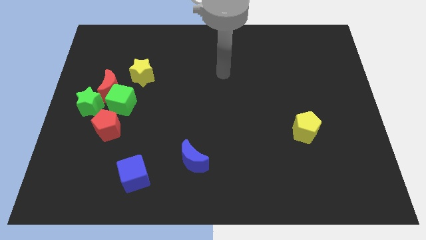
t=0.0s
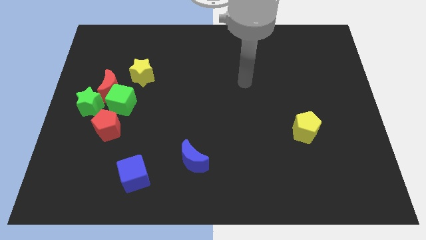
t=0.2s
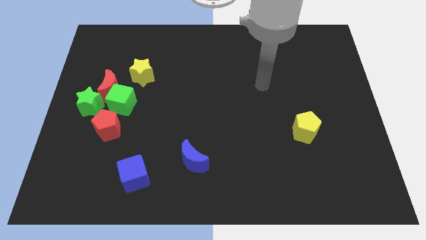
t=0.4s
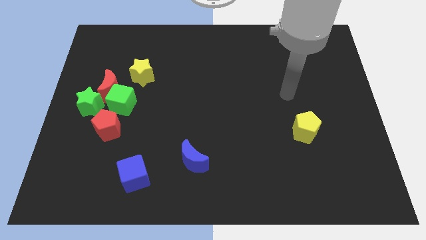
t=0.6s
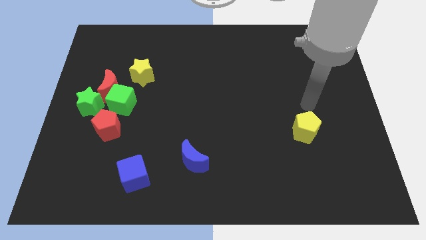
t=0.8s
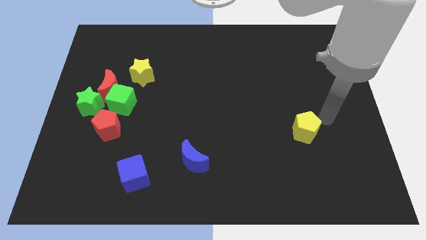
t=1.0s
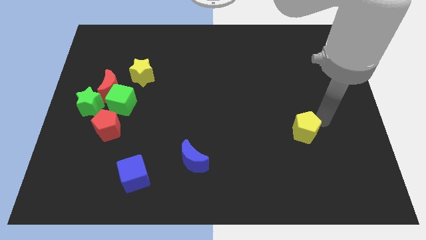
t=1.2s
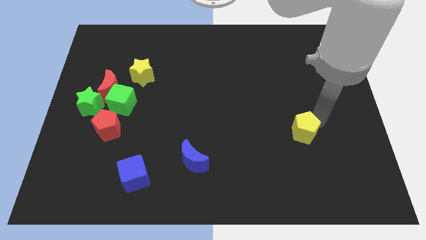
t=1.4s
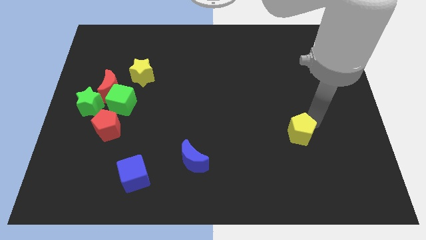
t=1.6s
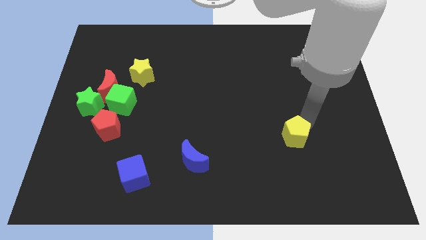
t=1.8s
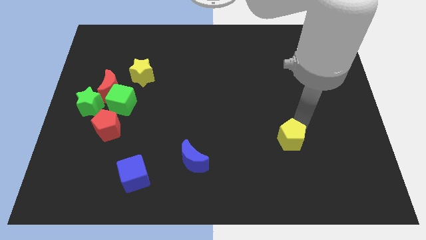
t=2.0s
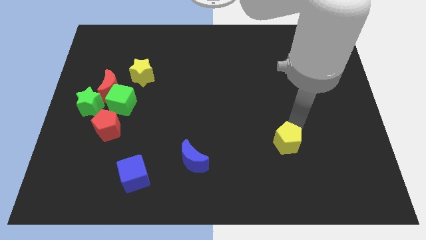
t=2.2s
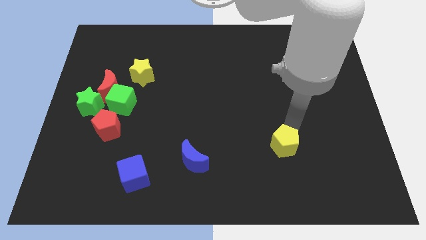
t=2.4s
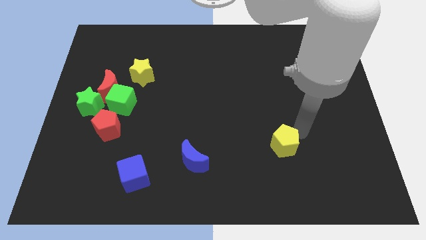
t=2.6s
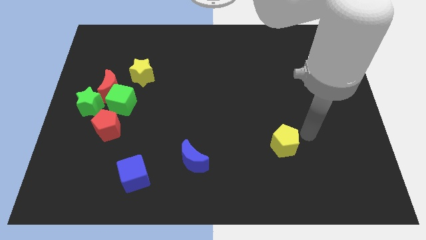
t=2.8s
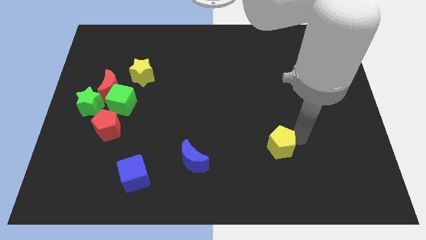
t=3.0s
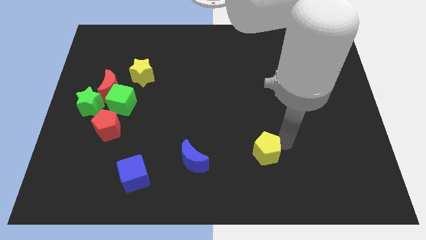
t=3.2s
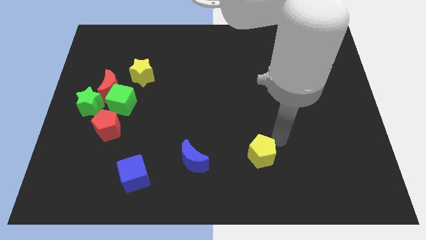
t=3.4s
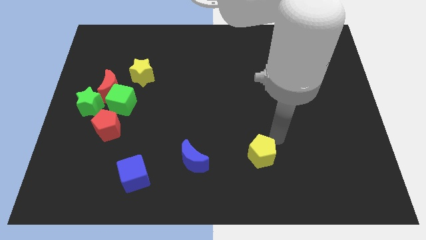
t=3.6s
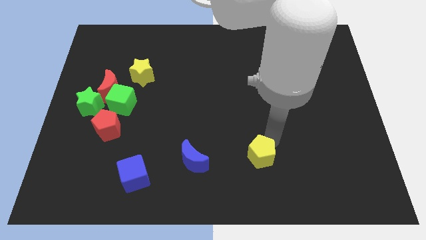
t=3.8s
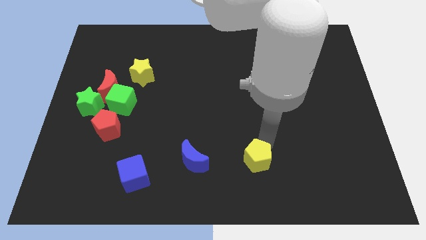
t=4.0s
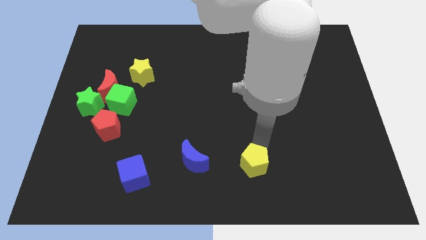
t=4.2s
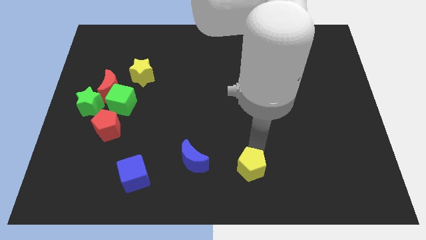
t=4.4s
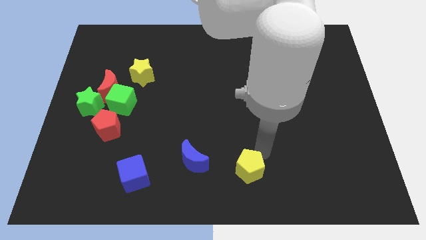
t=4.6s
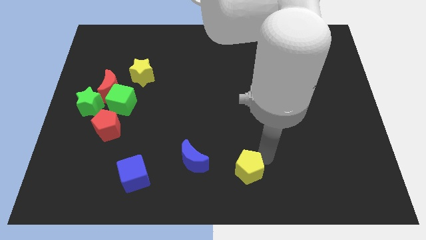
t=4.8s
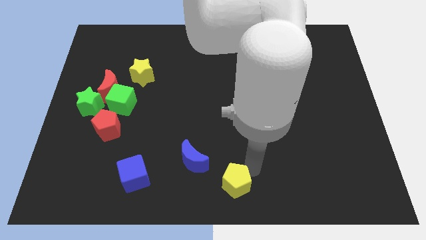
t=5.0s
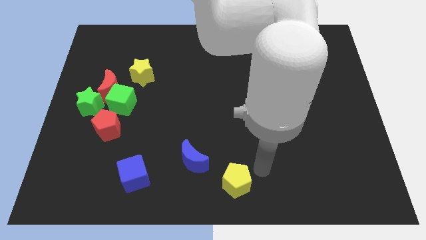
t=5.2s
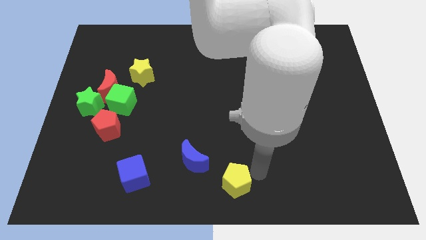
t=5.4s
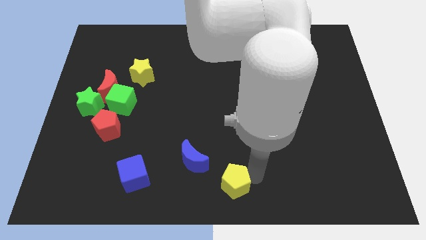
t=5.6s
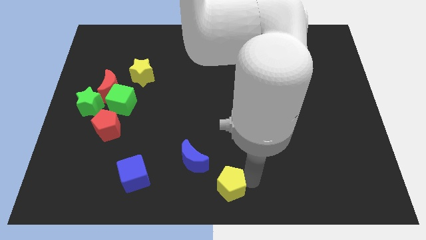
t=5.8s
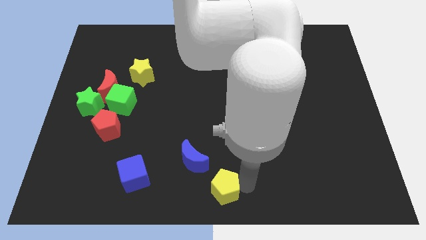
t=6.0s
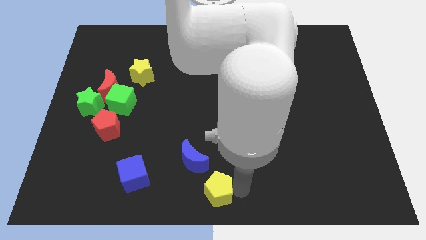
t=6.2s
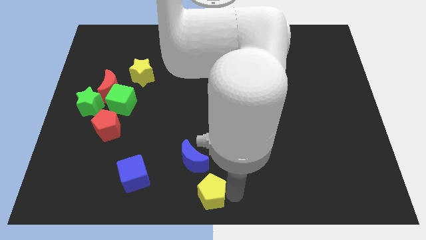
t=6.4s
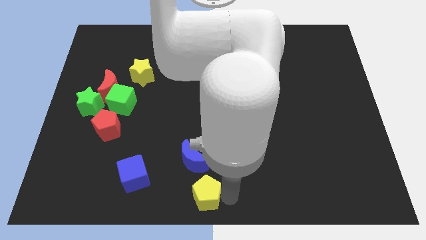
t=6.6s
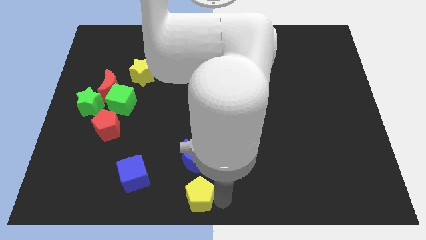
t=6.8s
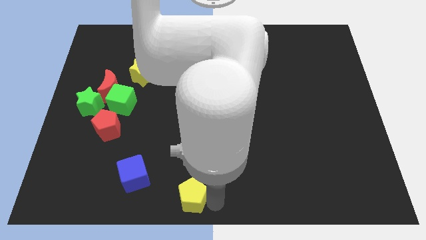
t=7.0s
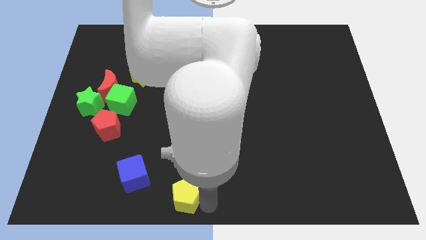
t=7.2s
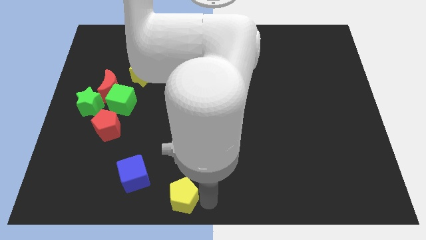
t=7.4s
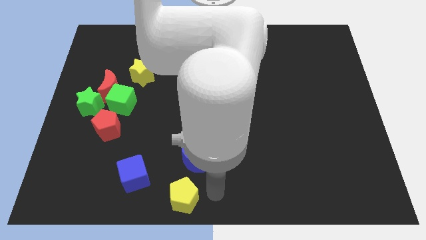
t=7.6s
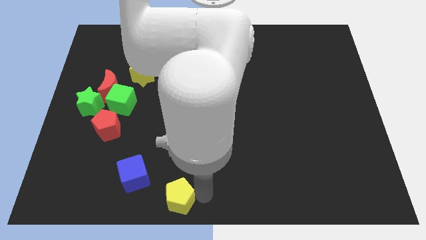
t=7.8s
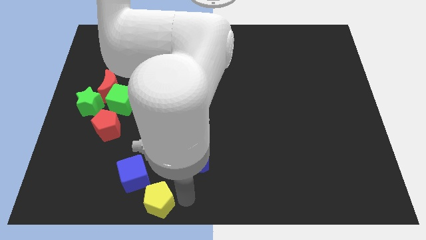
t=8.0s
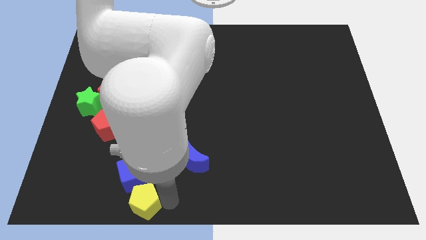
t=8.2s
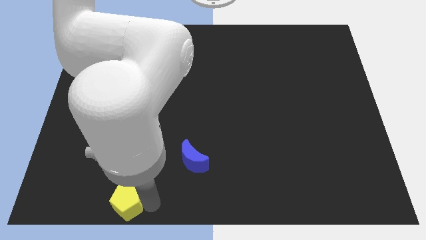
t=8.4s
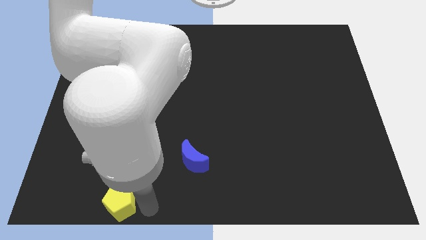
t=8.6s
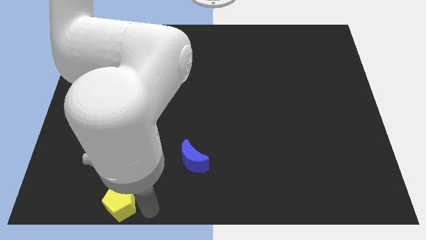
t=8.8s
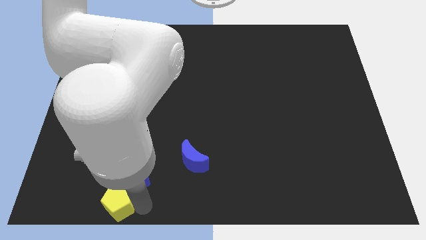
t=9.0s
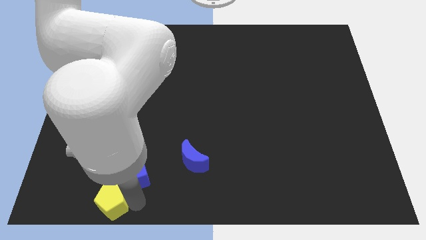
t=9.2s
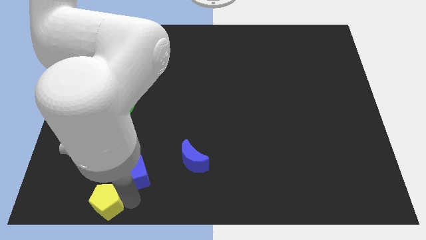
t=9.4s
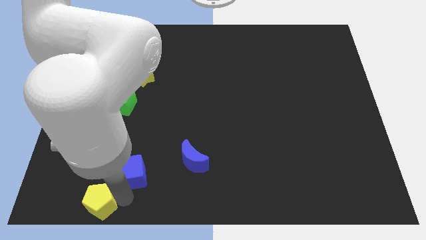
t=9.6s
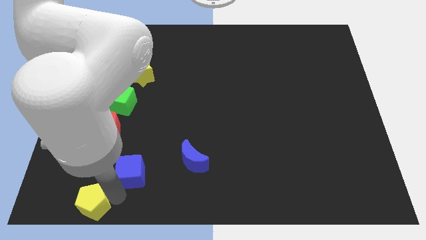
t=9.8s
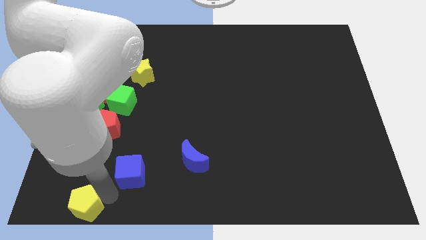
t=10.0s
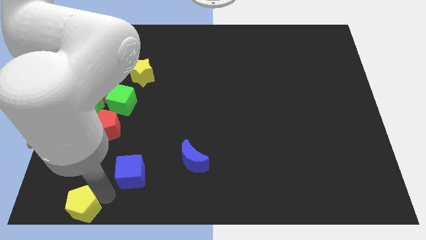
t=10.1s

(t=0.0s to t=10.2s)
put the yellow pentagon to the bottom left

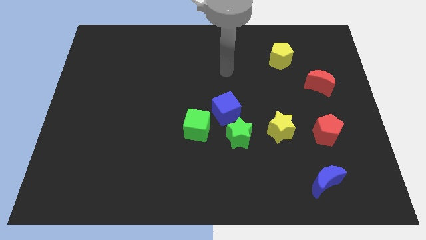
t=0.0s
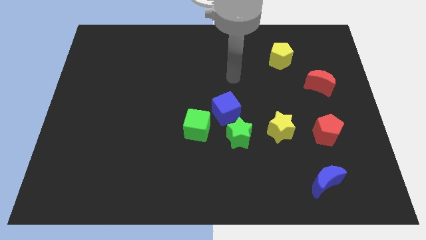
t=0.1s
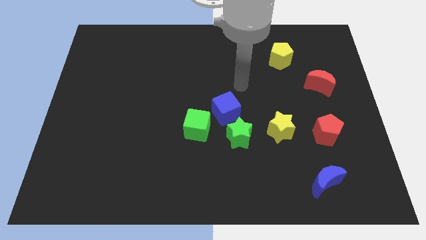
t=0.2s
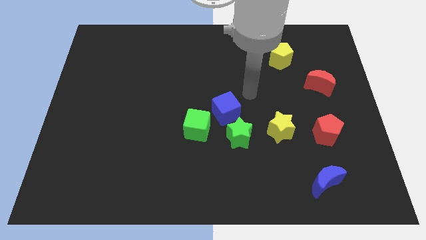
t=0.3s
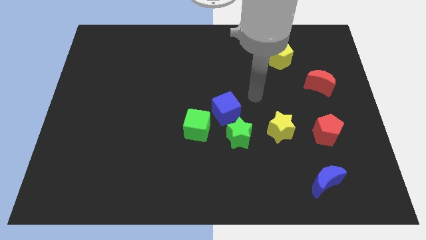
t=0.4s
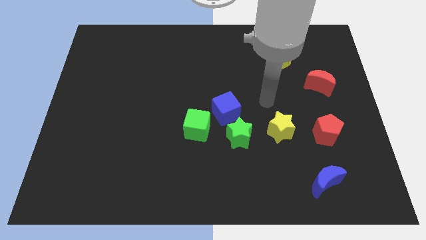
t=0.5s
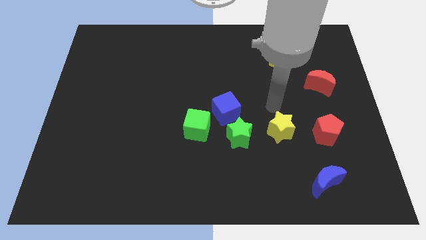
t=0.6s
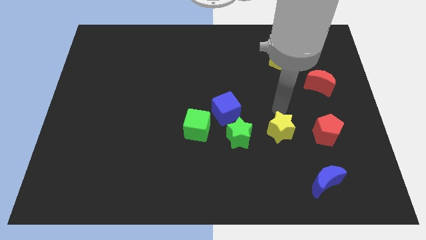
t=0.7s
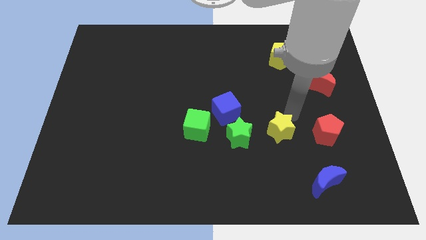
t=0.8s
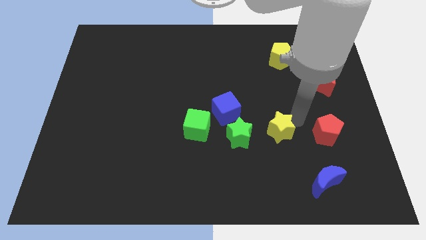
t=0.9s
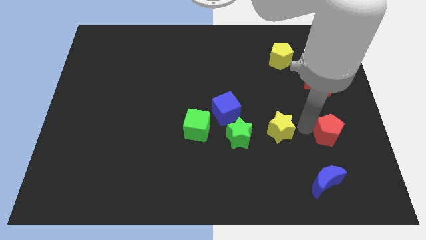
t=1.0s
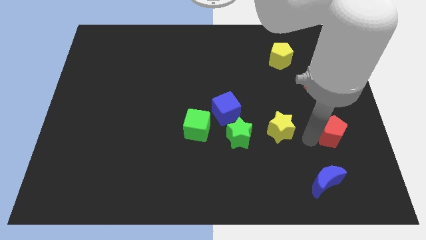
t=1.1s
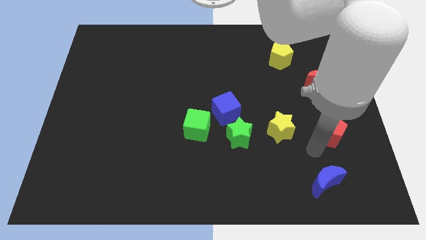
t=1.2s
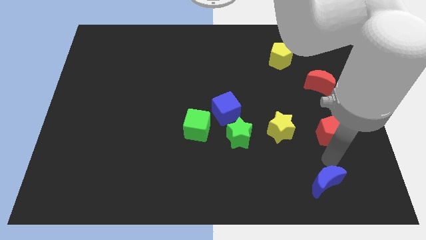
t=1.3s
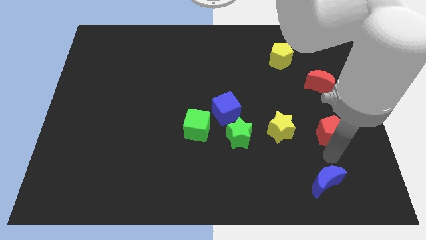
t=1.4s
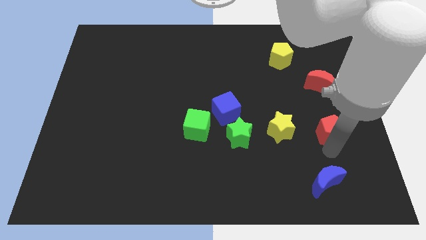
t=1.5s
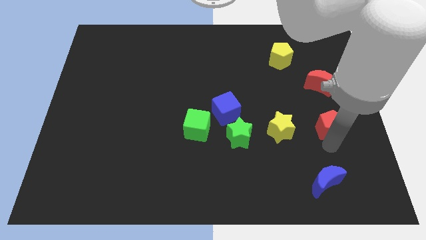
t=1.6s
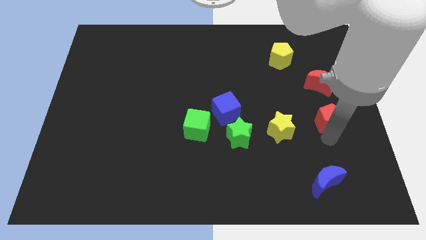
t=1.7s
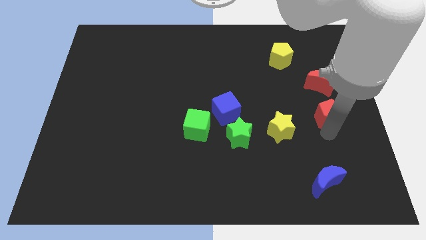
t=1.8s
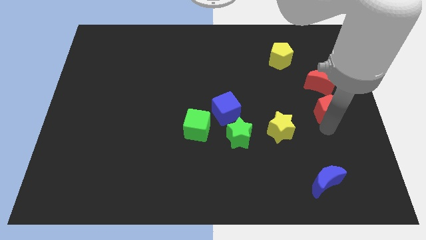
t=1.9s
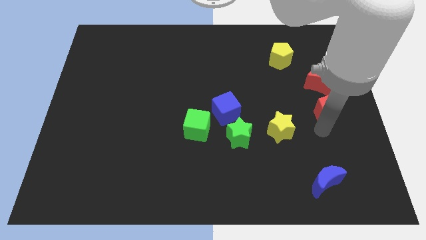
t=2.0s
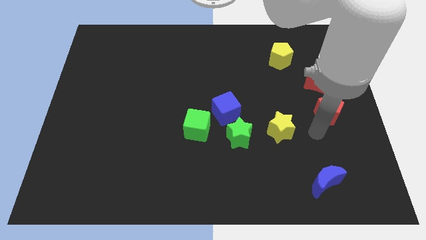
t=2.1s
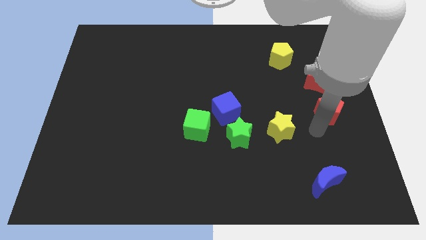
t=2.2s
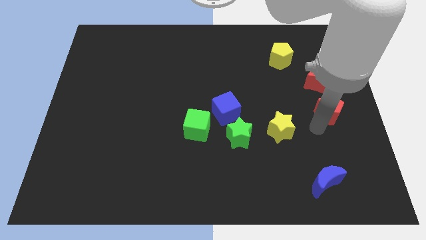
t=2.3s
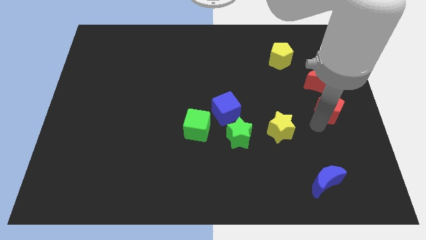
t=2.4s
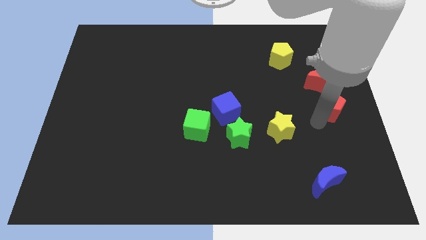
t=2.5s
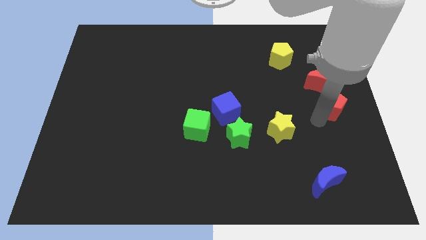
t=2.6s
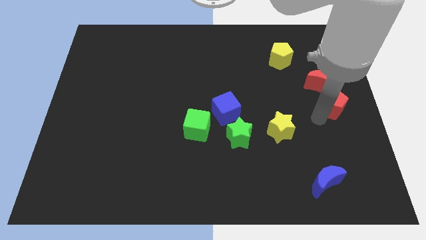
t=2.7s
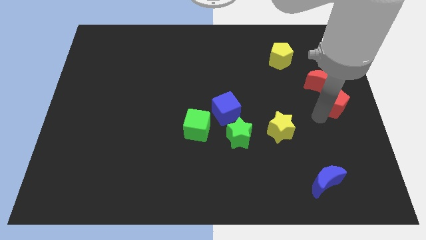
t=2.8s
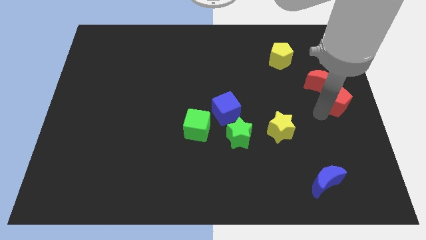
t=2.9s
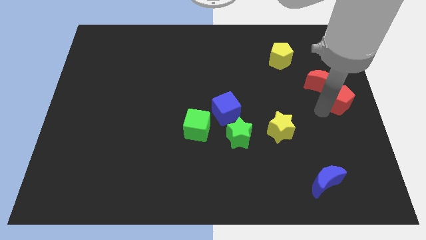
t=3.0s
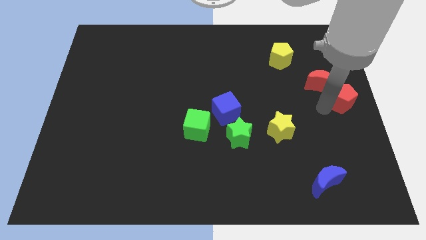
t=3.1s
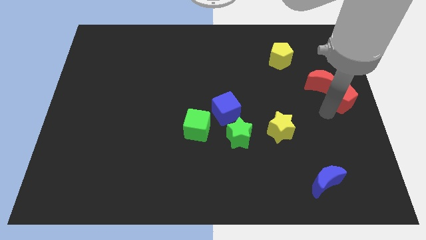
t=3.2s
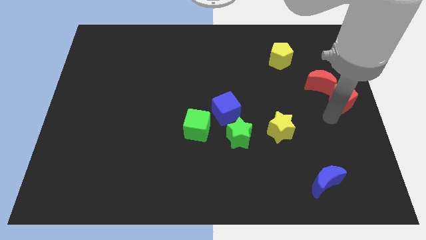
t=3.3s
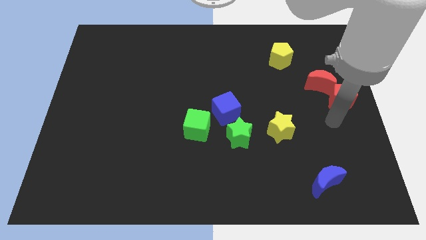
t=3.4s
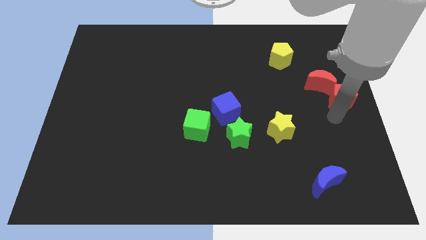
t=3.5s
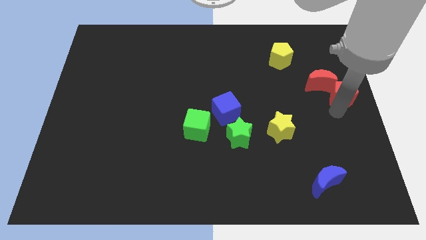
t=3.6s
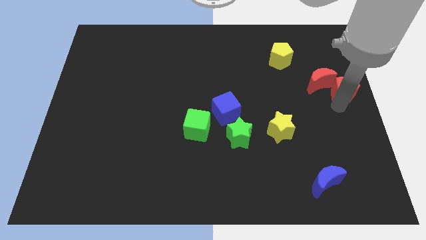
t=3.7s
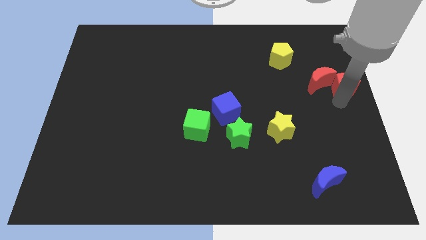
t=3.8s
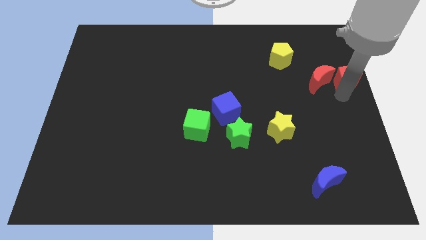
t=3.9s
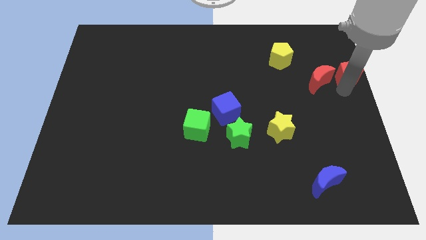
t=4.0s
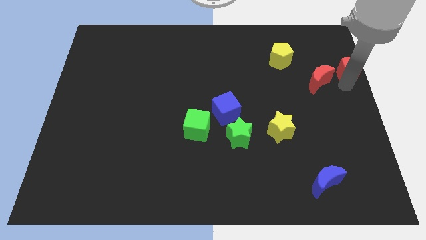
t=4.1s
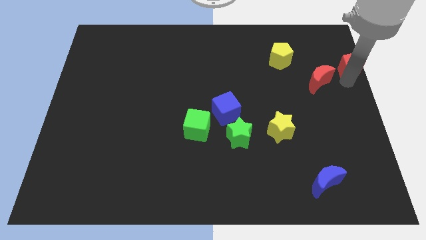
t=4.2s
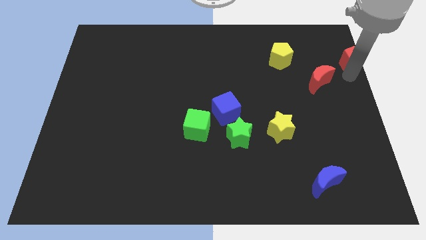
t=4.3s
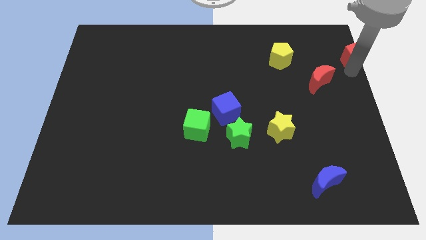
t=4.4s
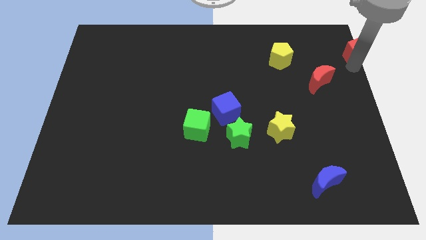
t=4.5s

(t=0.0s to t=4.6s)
push the red pentagon to the top right corner
